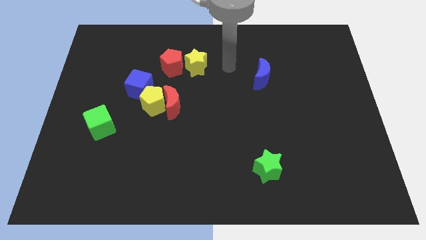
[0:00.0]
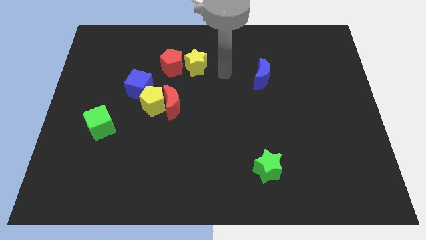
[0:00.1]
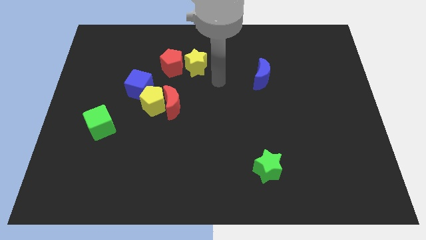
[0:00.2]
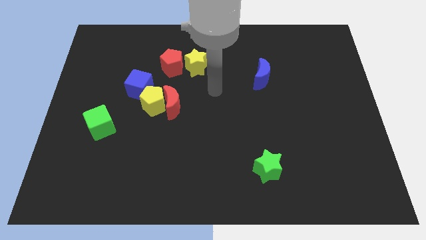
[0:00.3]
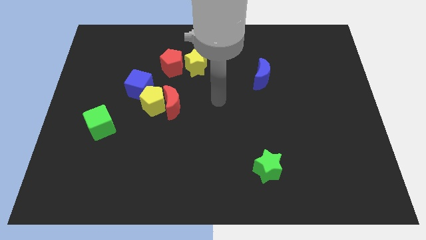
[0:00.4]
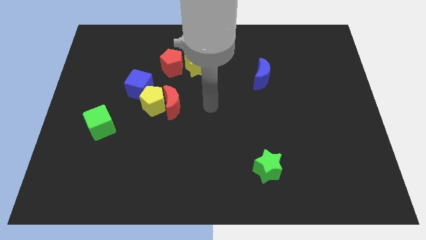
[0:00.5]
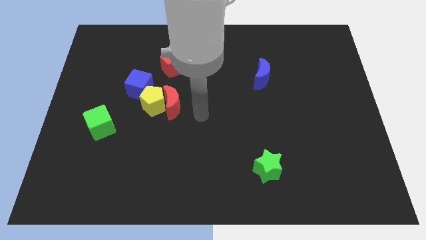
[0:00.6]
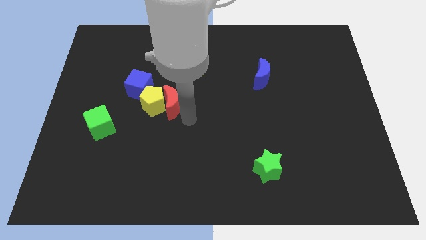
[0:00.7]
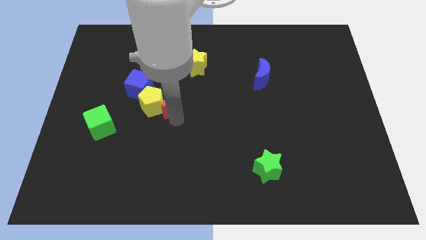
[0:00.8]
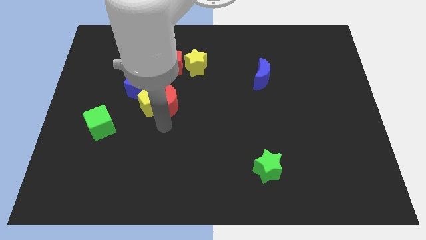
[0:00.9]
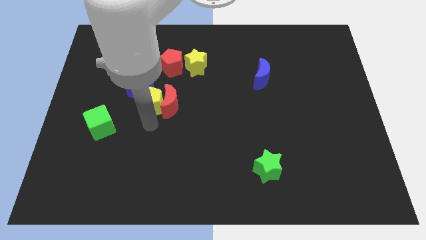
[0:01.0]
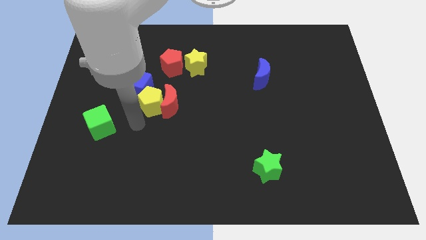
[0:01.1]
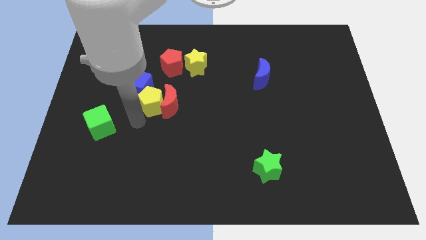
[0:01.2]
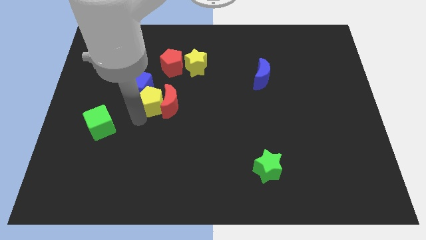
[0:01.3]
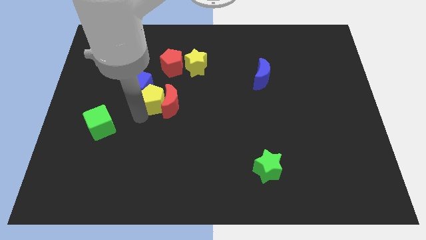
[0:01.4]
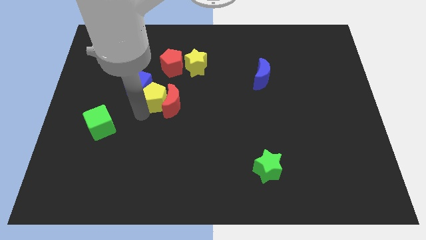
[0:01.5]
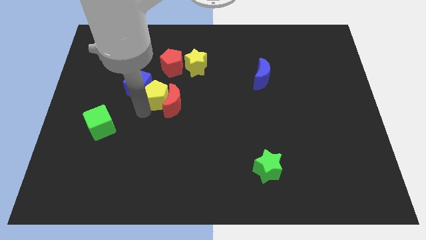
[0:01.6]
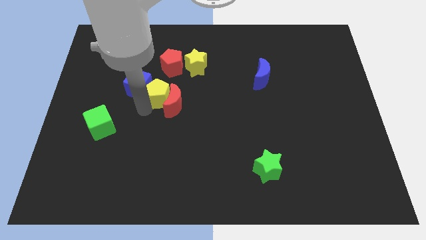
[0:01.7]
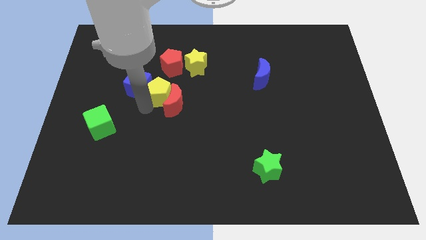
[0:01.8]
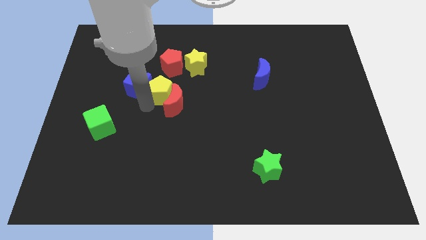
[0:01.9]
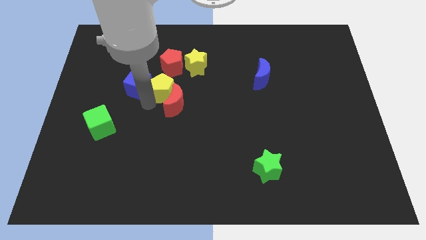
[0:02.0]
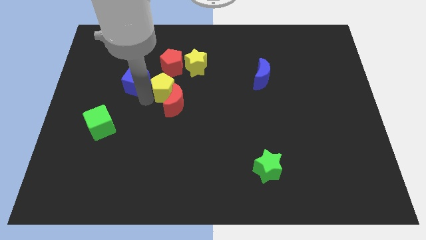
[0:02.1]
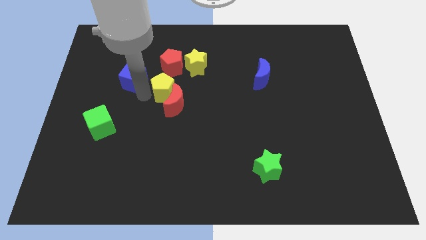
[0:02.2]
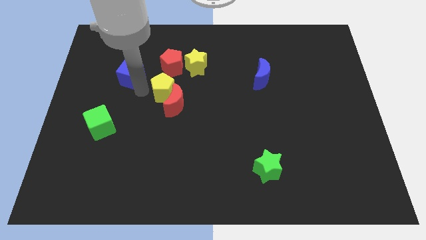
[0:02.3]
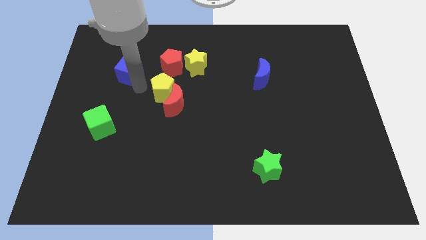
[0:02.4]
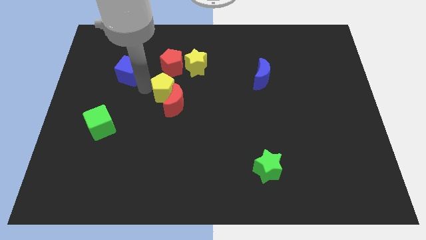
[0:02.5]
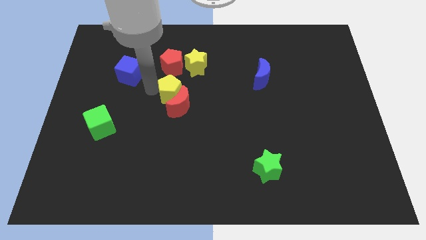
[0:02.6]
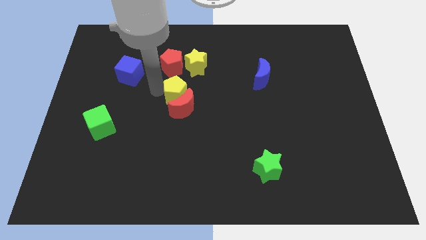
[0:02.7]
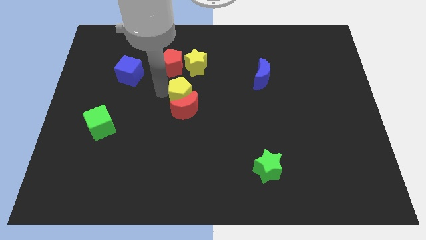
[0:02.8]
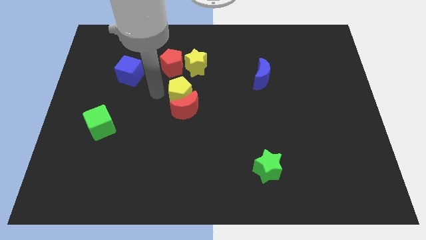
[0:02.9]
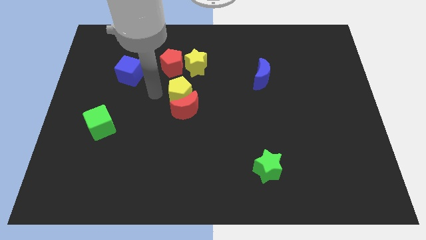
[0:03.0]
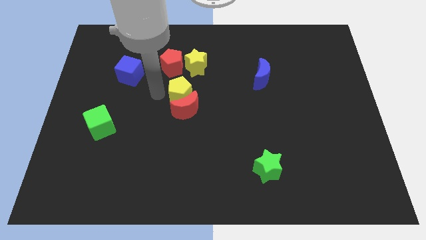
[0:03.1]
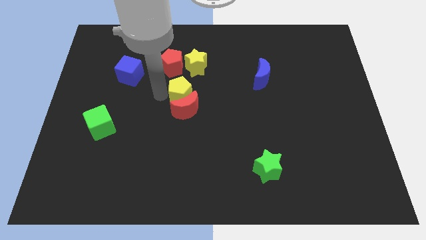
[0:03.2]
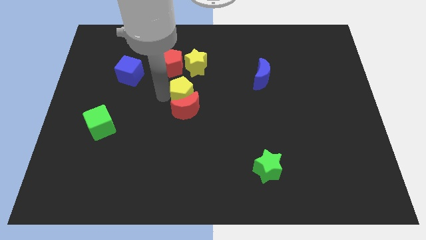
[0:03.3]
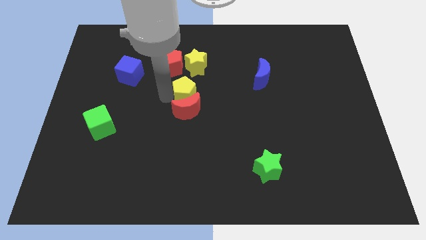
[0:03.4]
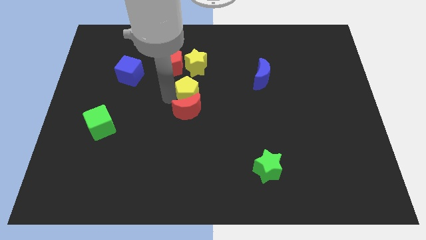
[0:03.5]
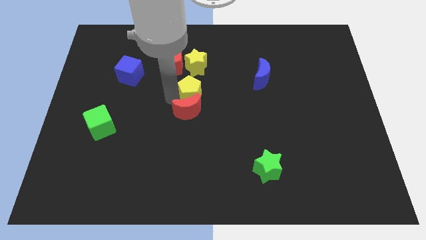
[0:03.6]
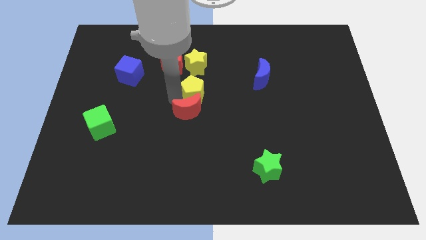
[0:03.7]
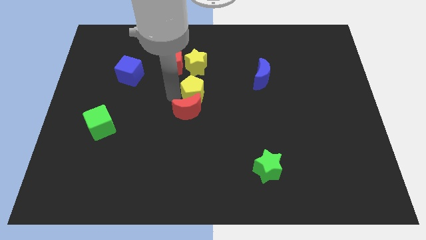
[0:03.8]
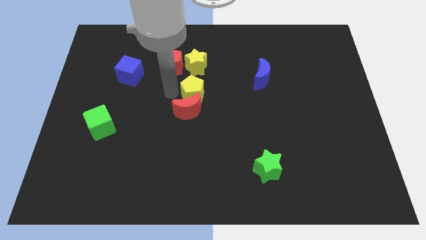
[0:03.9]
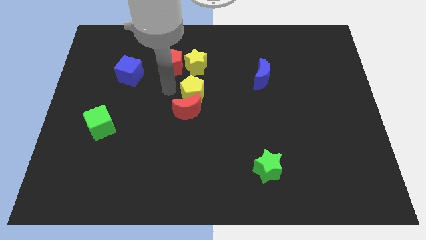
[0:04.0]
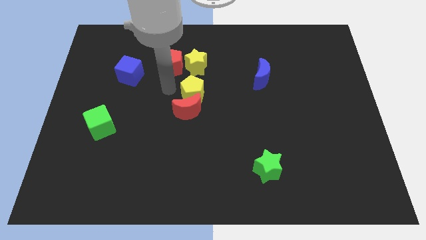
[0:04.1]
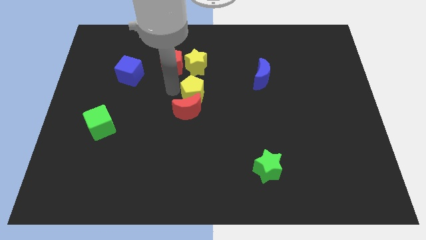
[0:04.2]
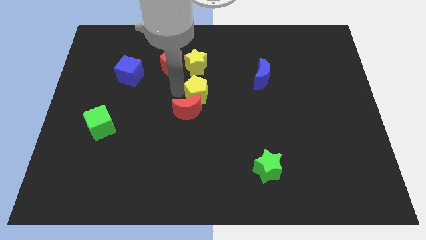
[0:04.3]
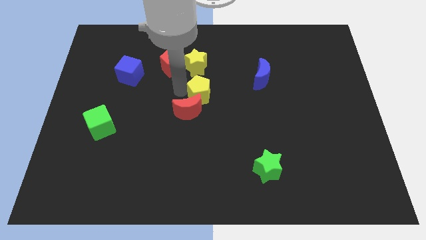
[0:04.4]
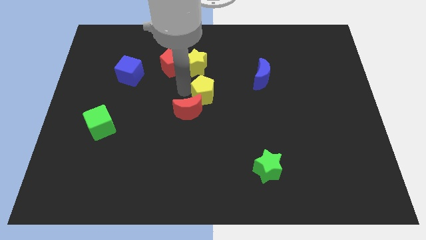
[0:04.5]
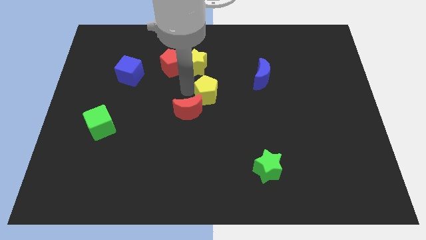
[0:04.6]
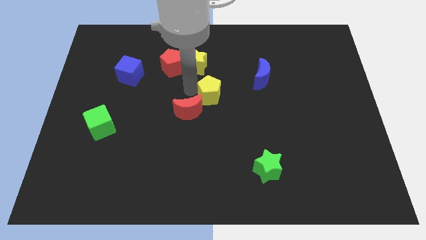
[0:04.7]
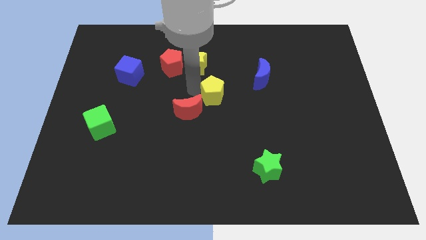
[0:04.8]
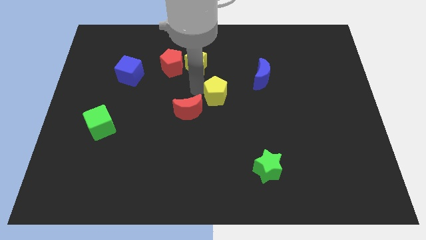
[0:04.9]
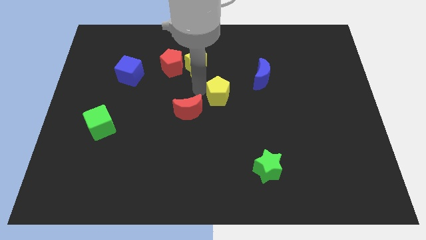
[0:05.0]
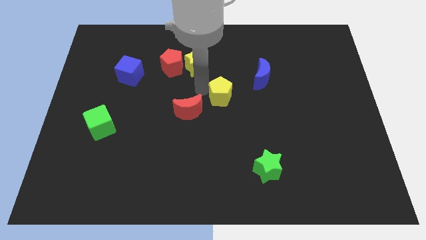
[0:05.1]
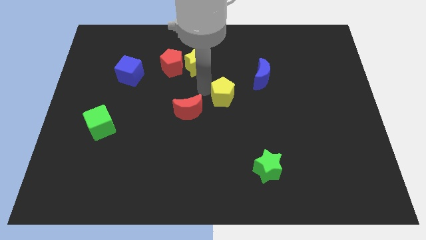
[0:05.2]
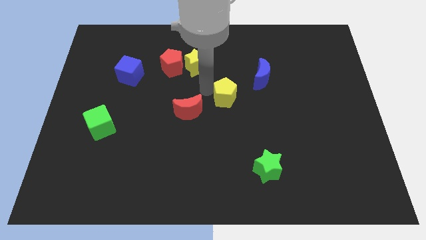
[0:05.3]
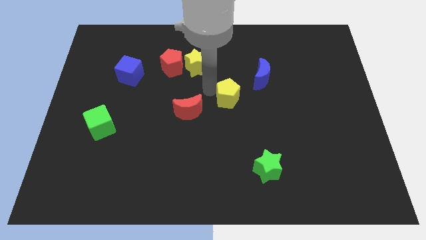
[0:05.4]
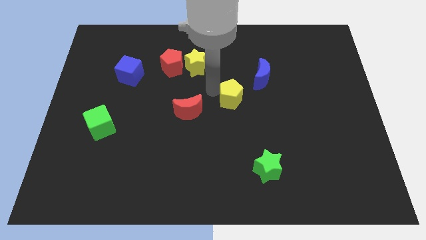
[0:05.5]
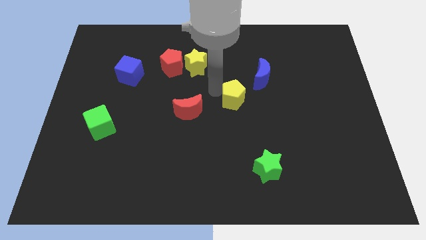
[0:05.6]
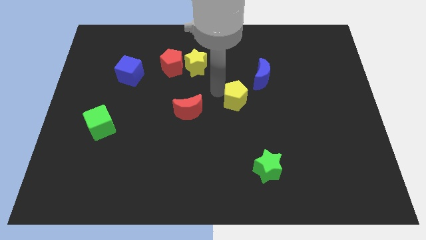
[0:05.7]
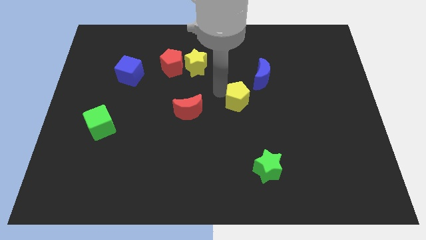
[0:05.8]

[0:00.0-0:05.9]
slide the yellow pentagon right

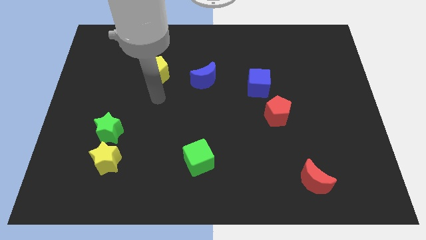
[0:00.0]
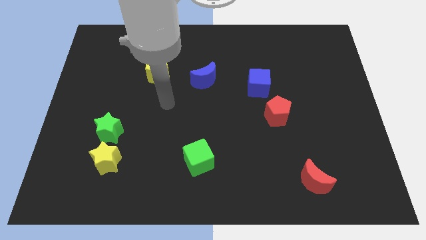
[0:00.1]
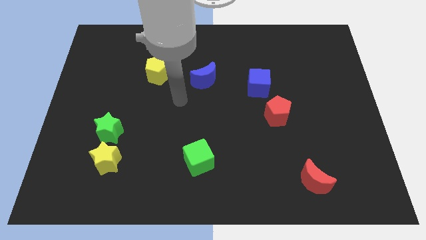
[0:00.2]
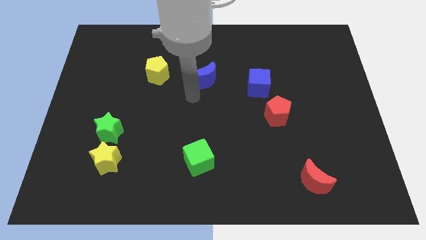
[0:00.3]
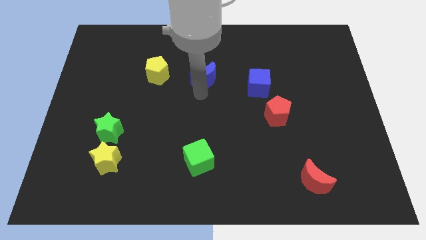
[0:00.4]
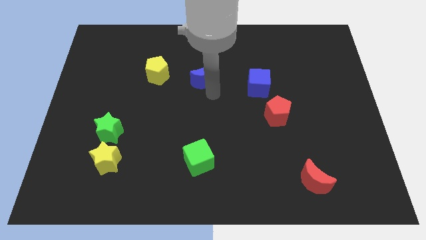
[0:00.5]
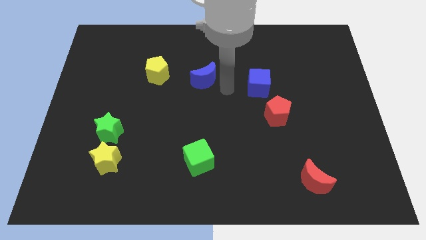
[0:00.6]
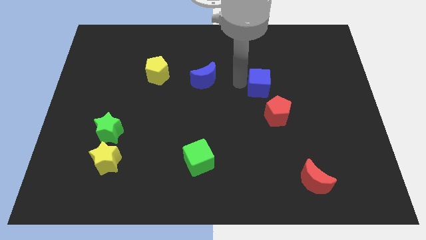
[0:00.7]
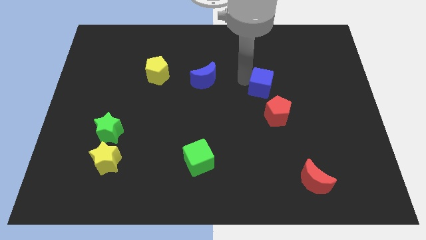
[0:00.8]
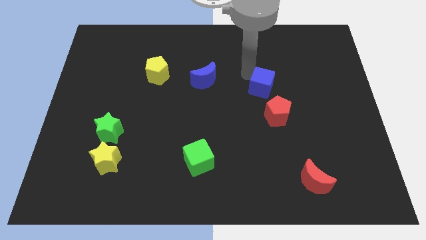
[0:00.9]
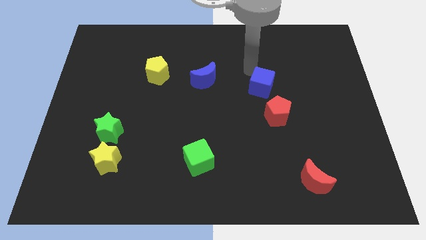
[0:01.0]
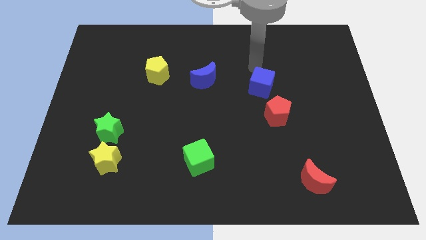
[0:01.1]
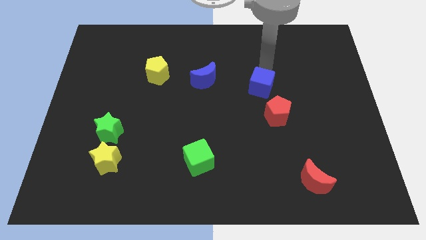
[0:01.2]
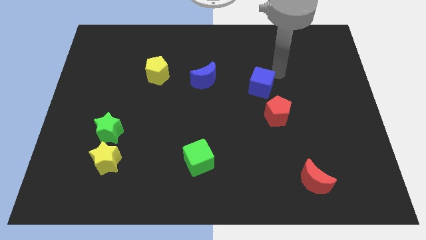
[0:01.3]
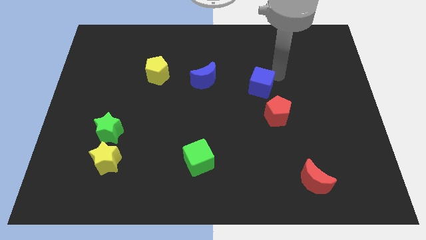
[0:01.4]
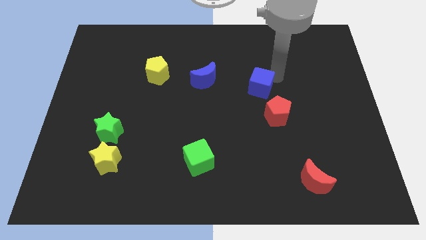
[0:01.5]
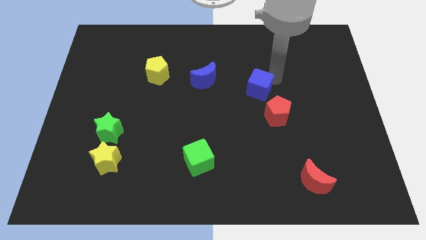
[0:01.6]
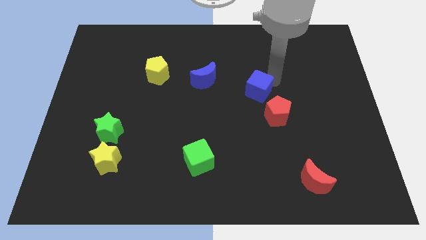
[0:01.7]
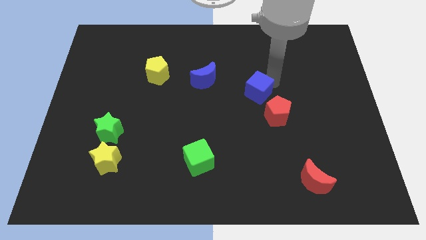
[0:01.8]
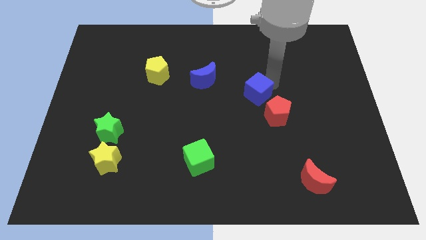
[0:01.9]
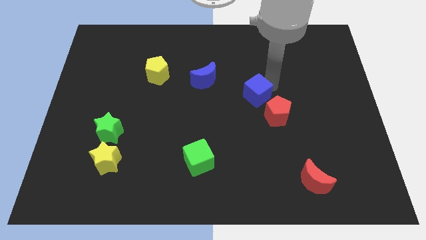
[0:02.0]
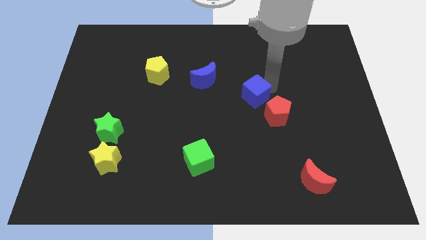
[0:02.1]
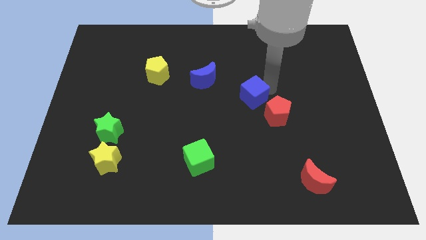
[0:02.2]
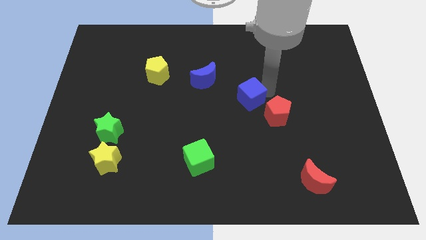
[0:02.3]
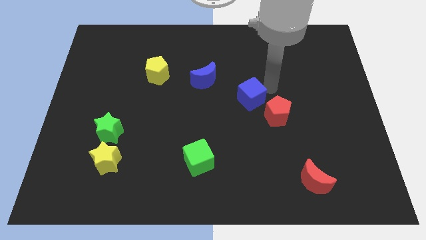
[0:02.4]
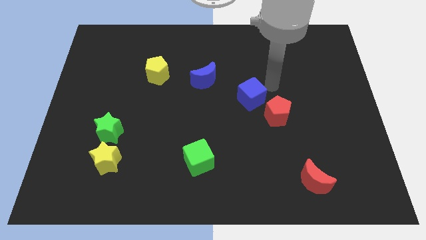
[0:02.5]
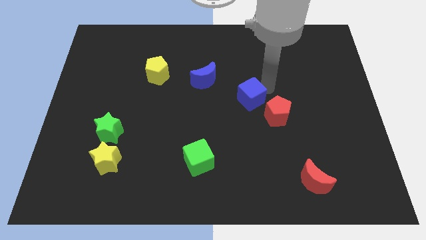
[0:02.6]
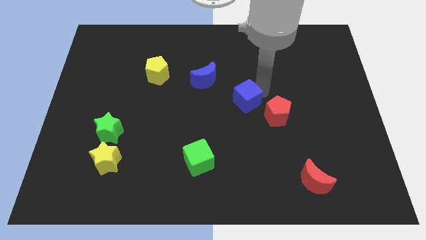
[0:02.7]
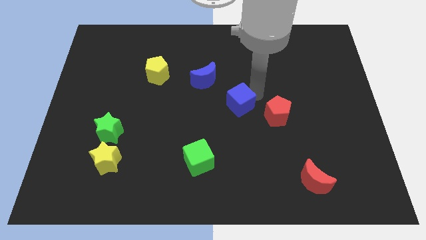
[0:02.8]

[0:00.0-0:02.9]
push the blue cube downwards and to the left slightly
